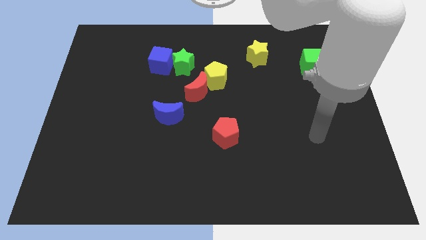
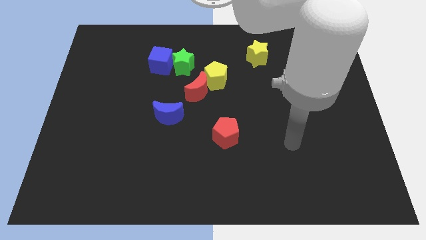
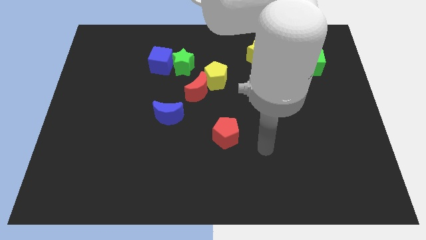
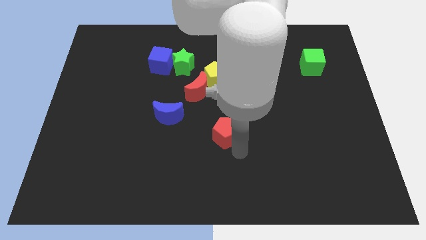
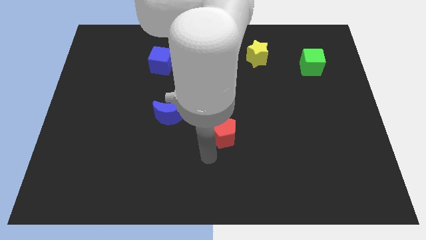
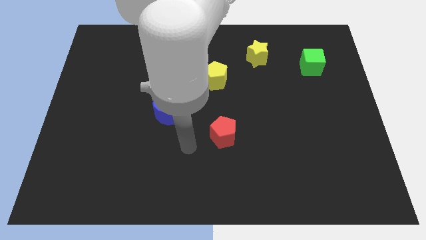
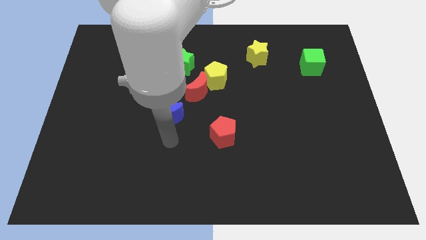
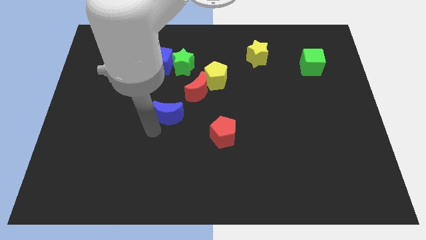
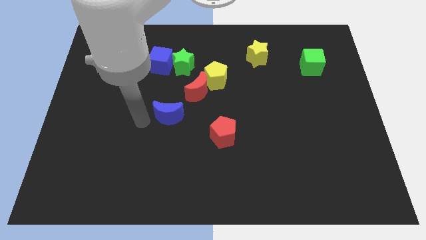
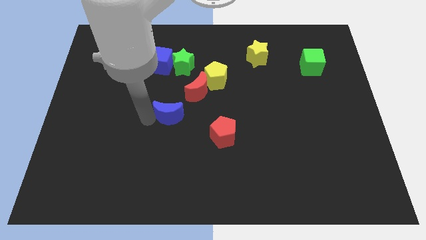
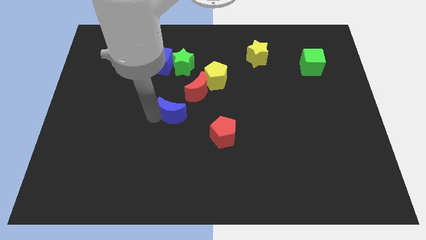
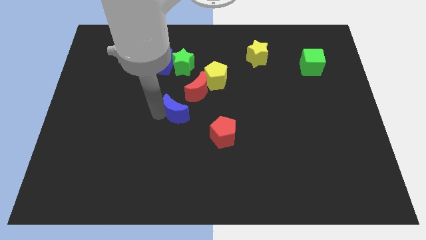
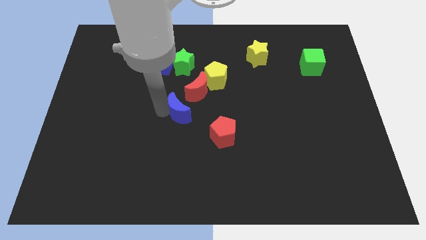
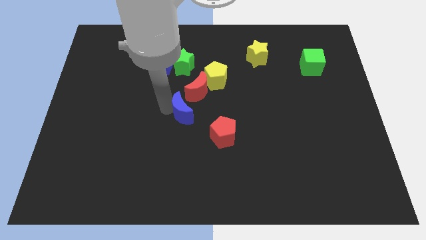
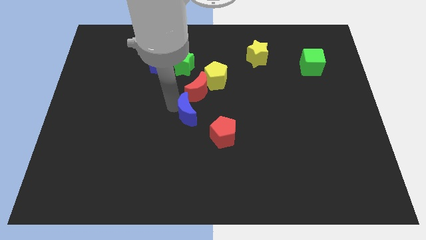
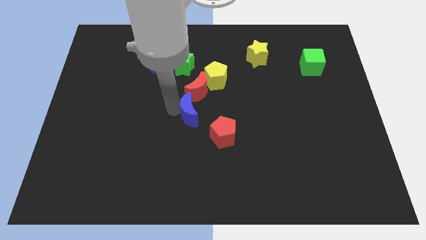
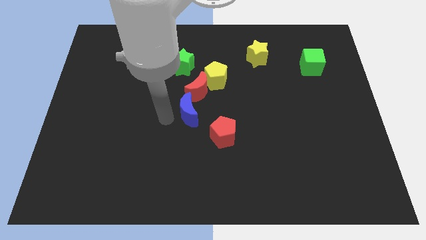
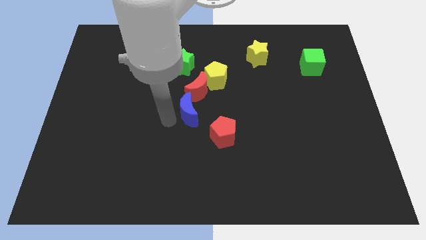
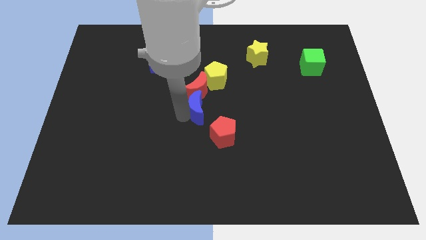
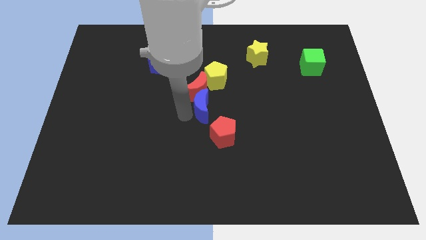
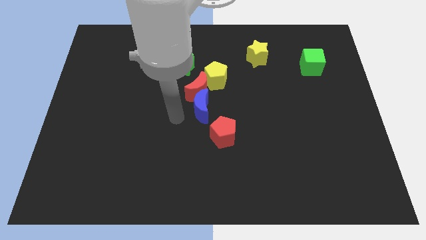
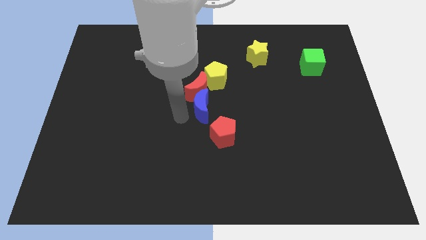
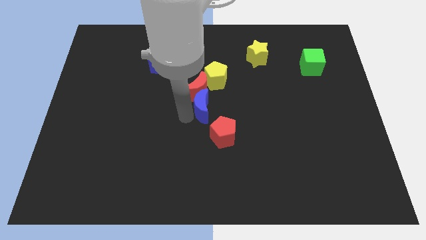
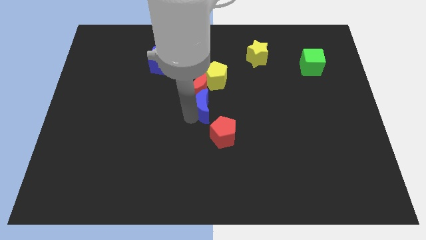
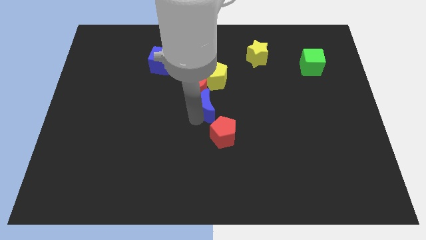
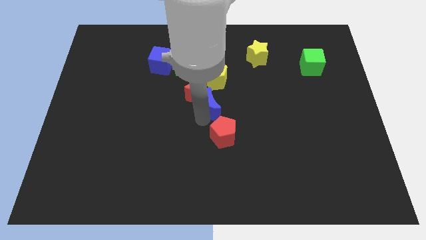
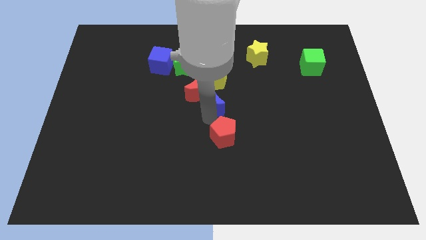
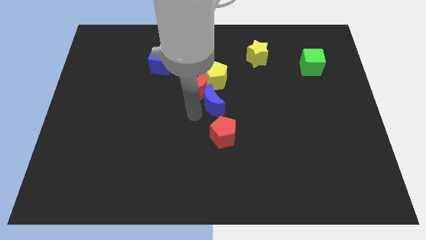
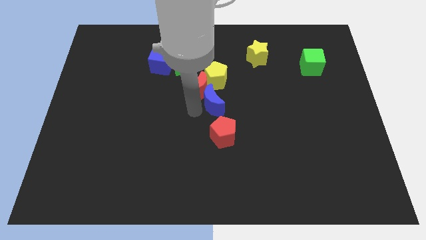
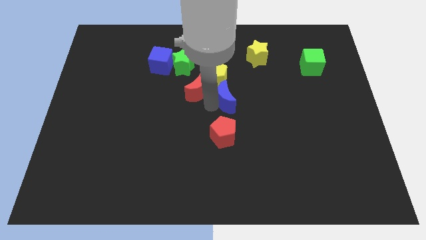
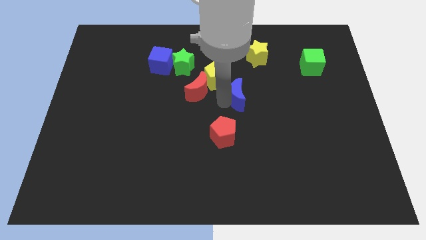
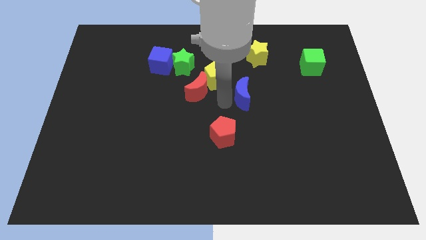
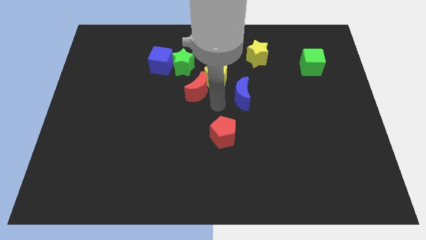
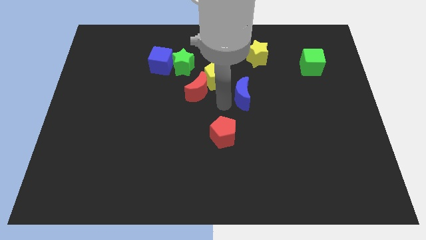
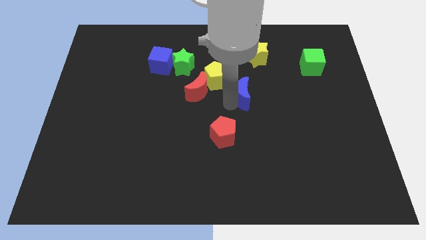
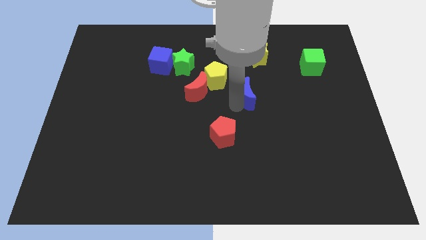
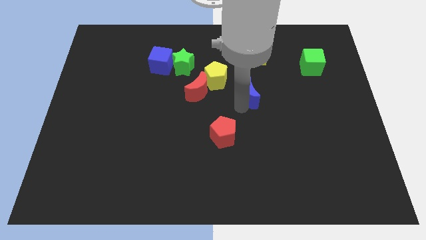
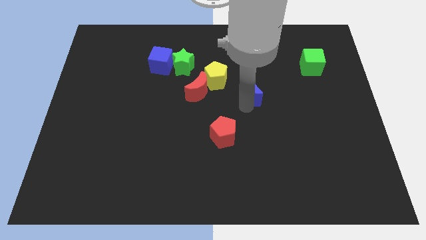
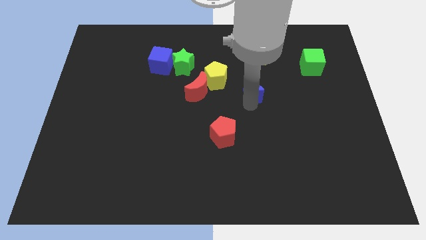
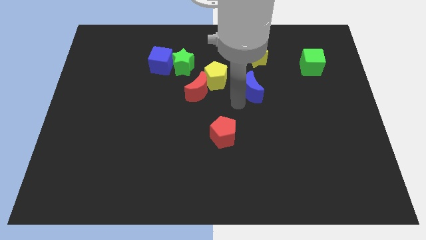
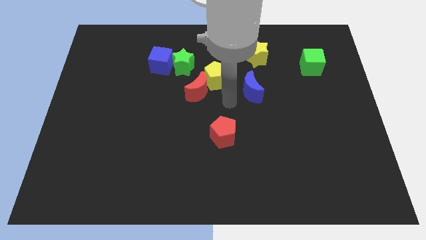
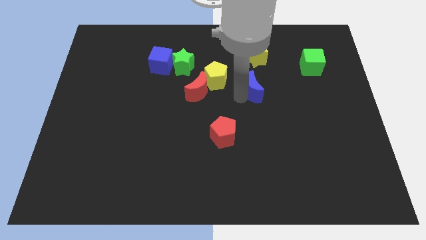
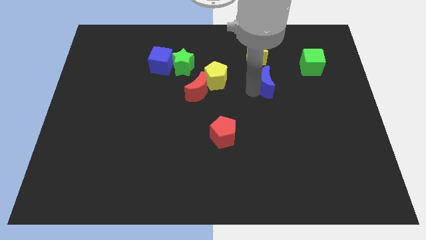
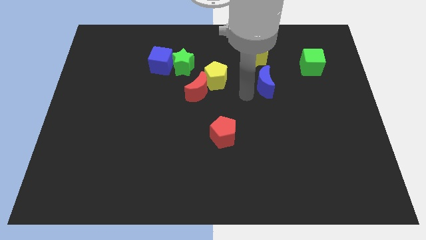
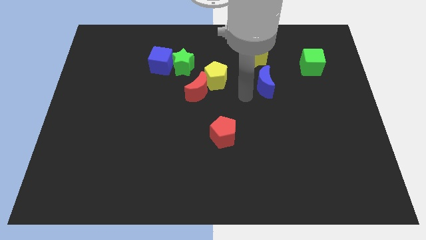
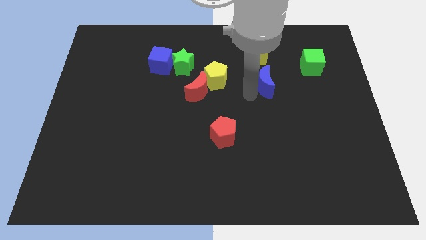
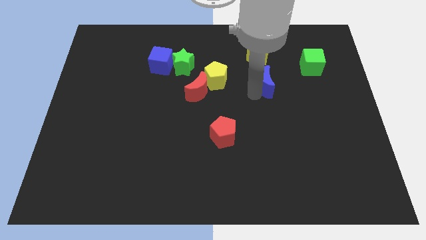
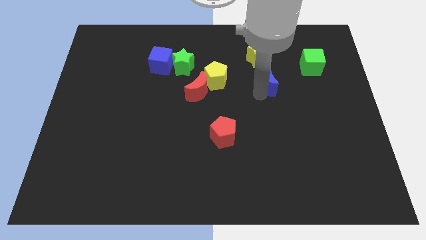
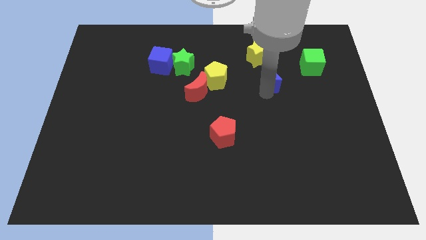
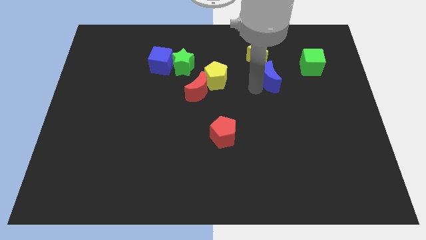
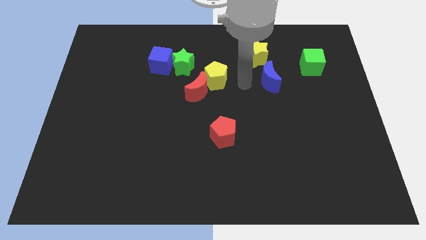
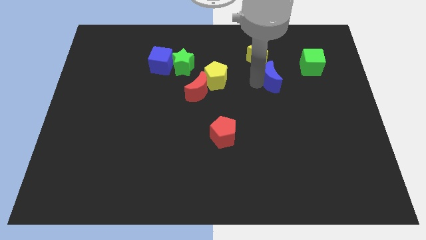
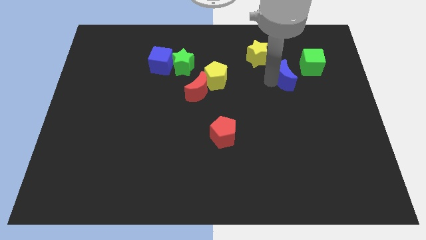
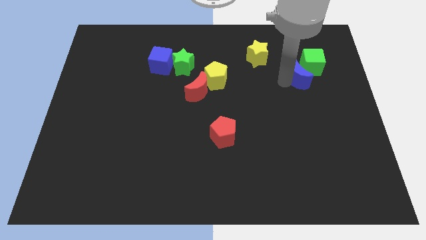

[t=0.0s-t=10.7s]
put the blue moon towards the green cube

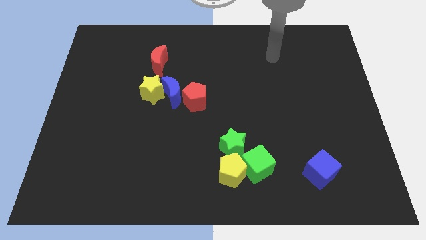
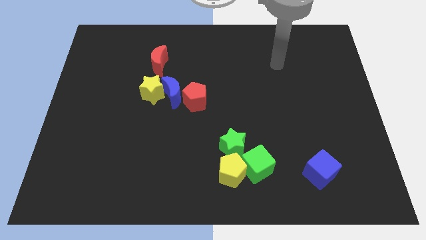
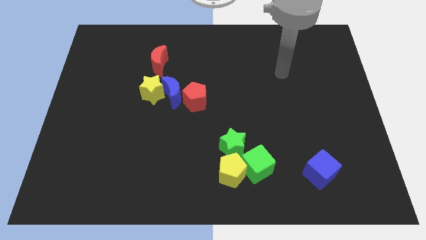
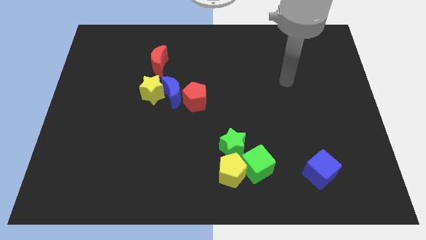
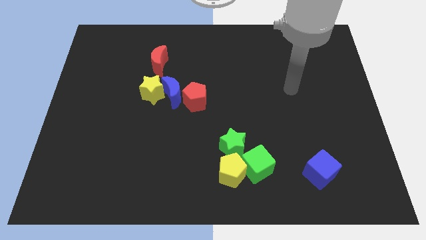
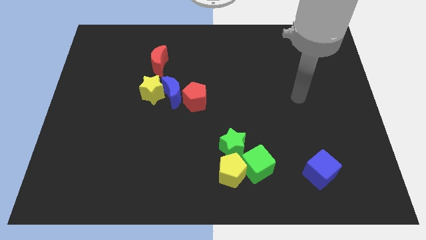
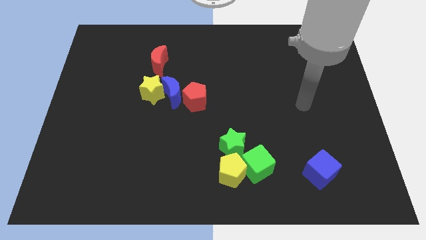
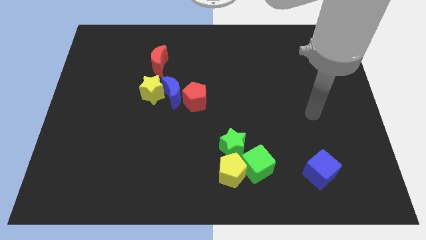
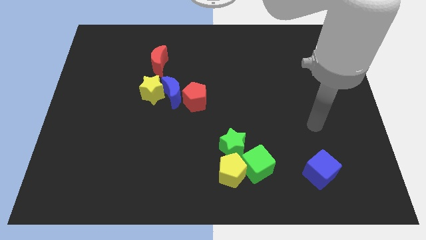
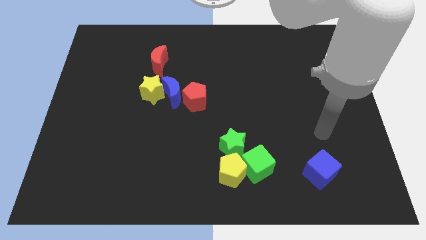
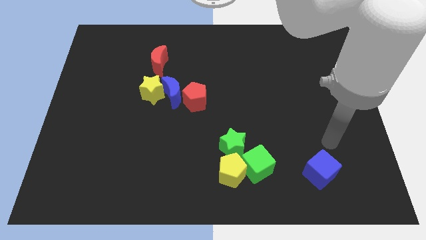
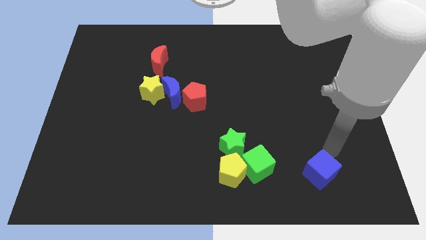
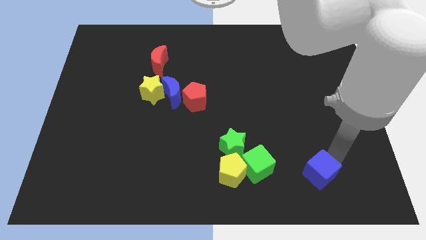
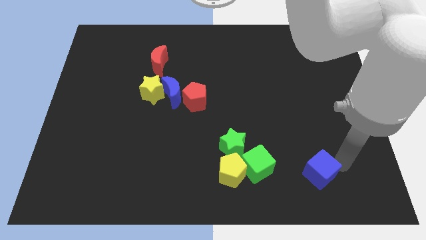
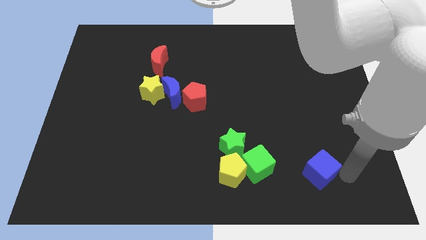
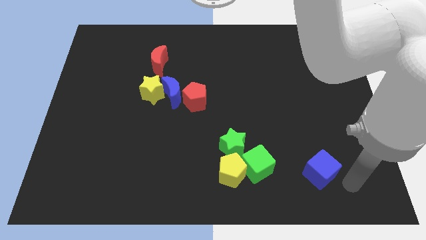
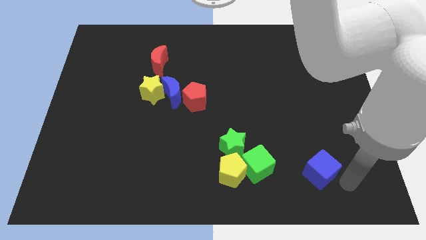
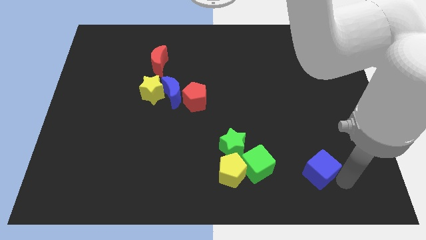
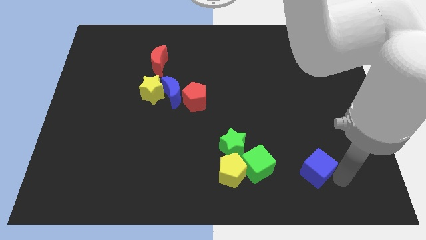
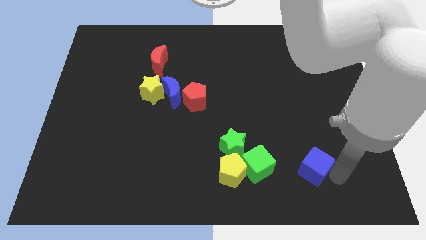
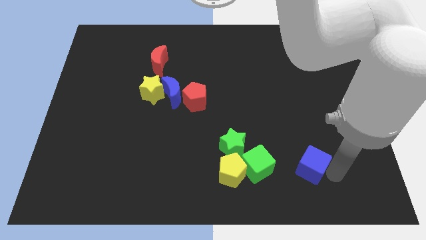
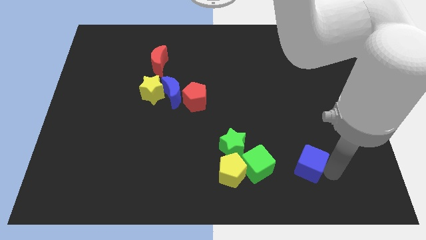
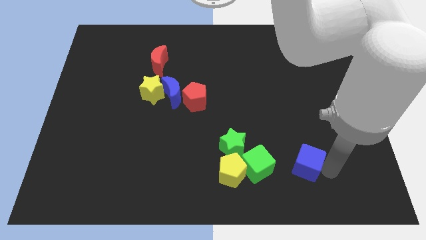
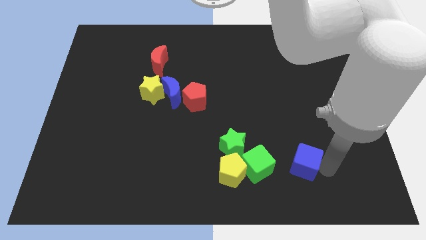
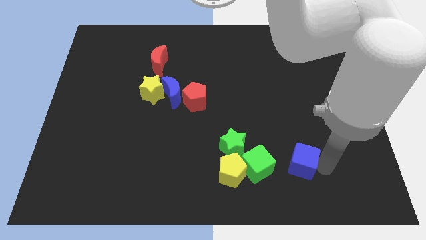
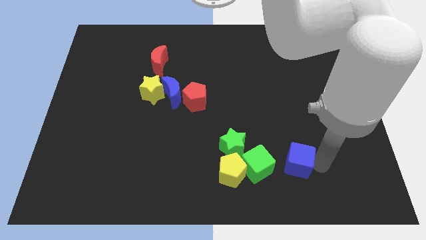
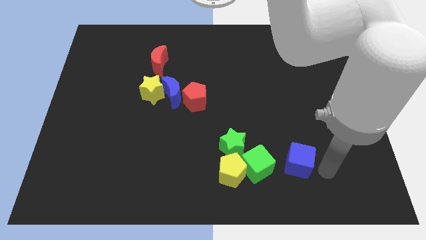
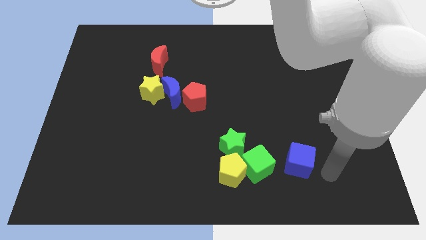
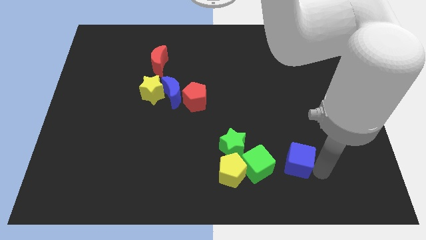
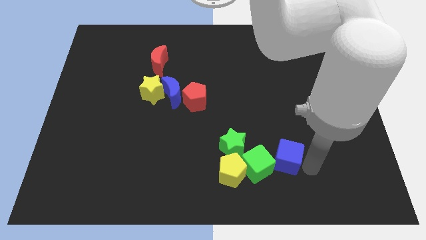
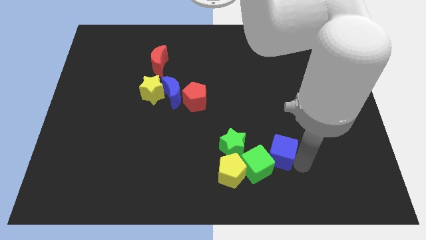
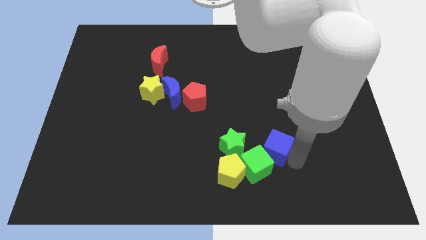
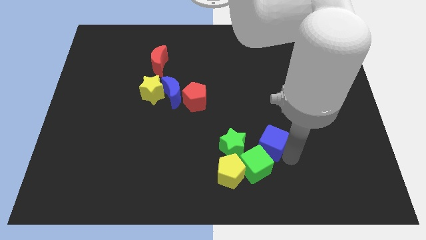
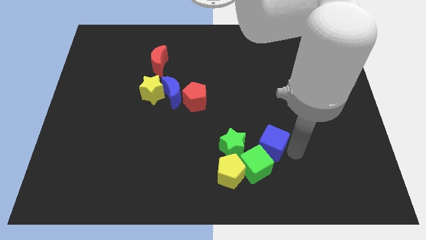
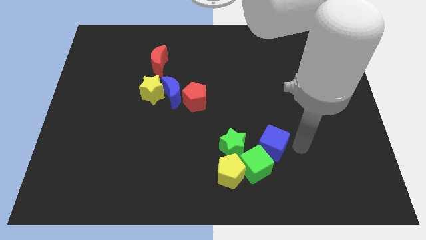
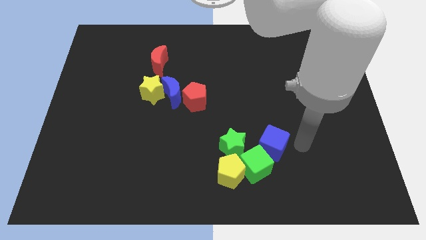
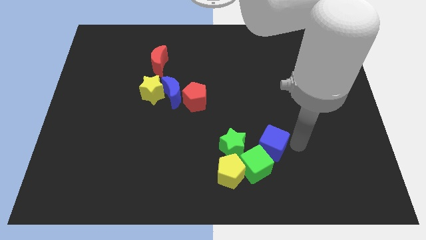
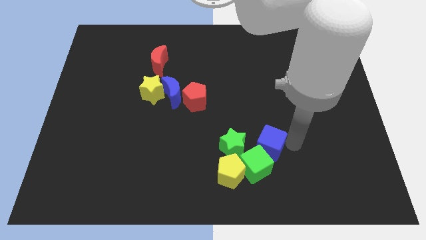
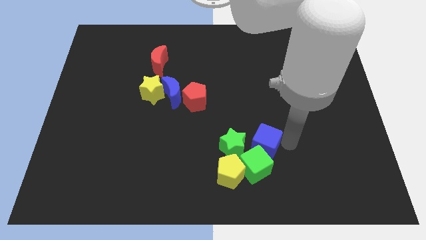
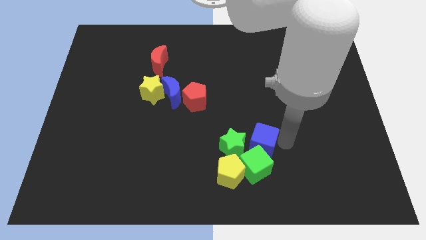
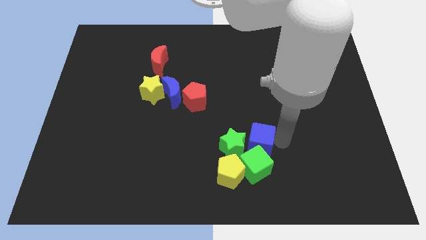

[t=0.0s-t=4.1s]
push the blue cube to the green star
